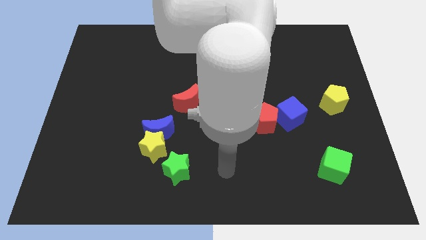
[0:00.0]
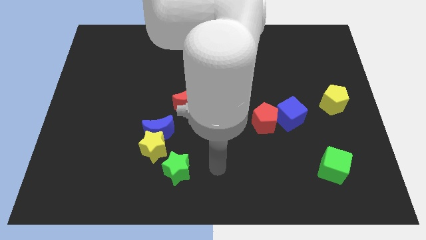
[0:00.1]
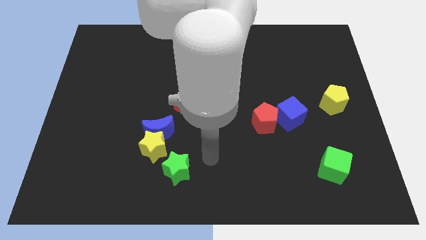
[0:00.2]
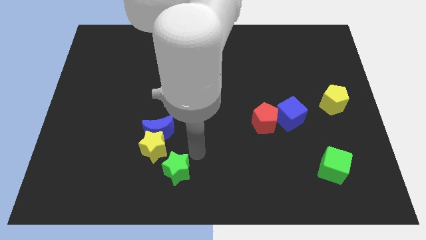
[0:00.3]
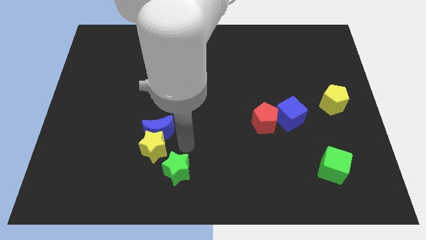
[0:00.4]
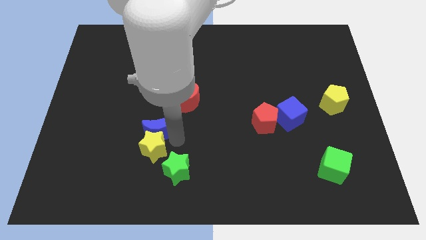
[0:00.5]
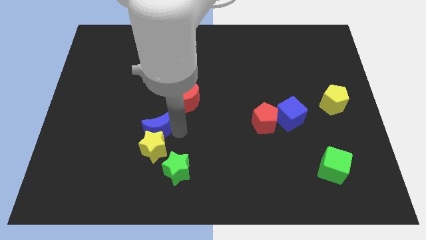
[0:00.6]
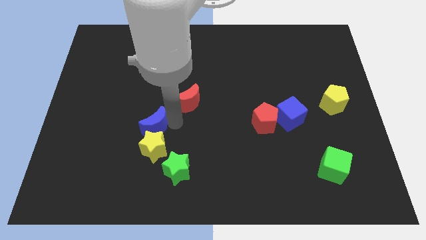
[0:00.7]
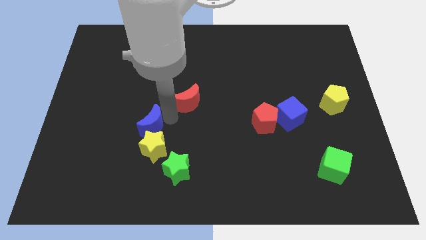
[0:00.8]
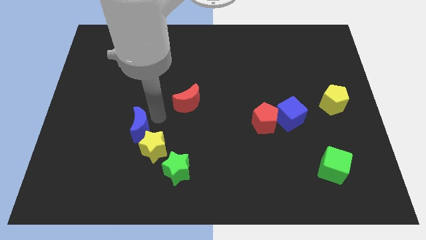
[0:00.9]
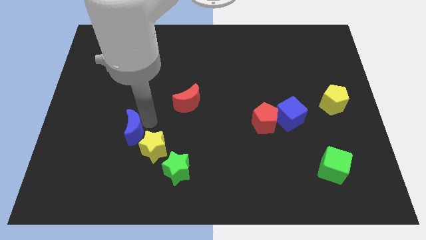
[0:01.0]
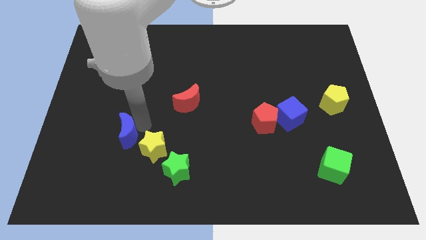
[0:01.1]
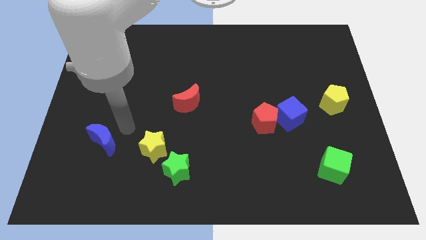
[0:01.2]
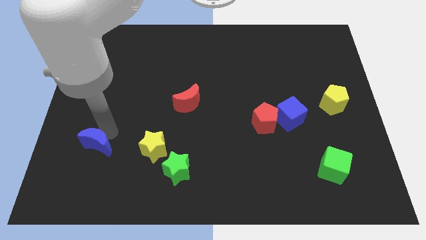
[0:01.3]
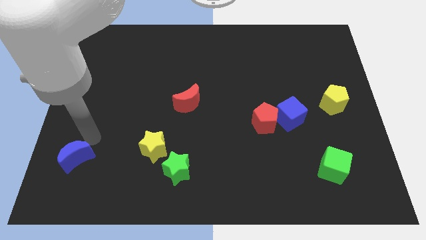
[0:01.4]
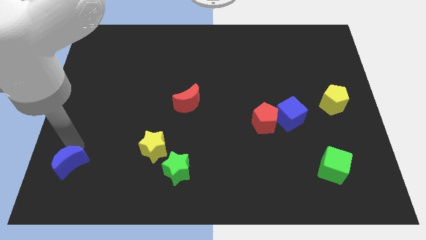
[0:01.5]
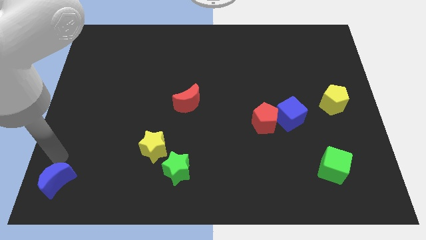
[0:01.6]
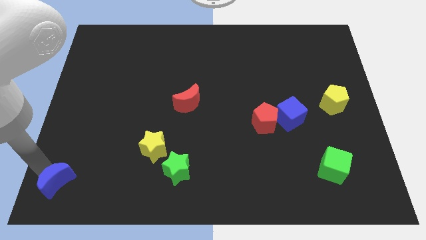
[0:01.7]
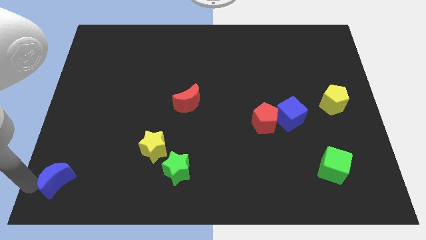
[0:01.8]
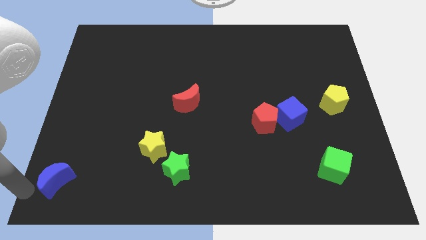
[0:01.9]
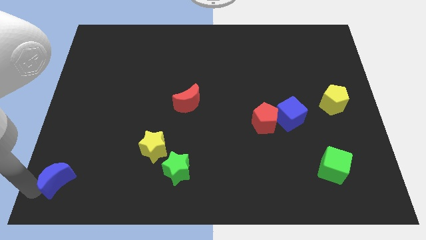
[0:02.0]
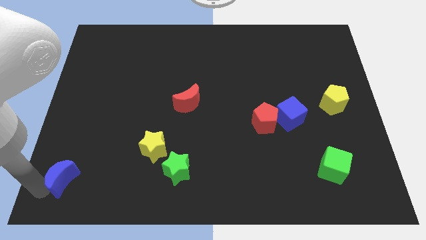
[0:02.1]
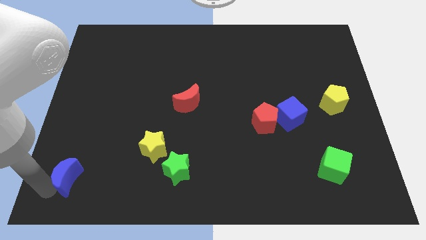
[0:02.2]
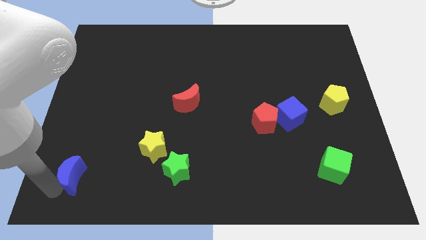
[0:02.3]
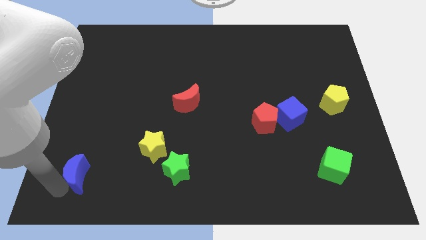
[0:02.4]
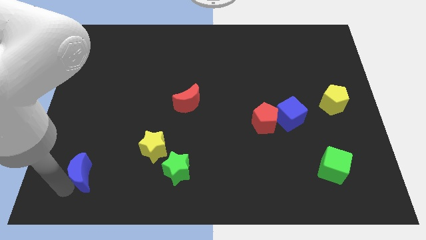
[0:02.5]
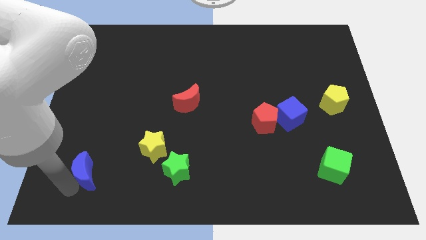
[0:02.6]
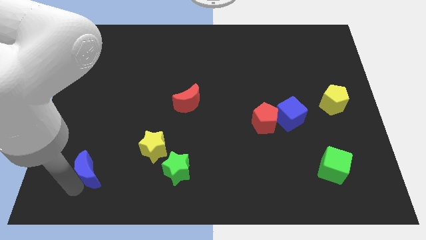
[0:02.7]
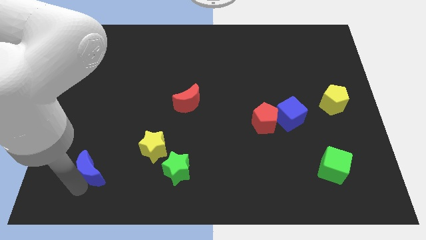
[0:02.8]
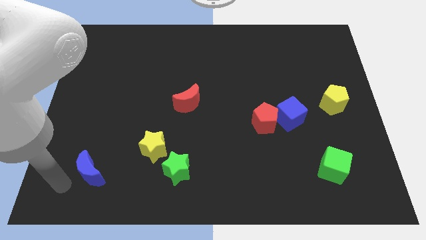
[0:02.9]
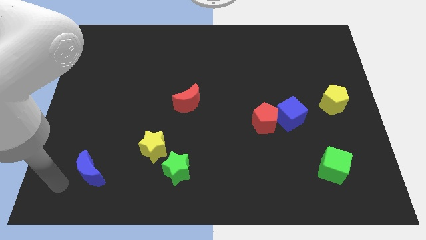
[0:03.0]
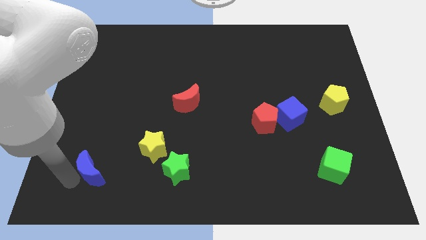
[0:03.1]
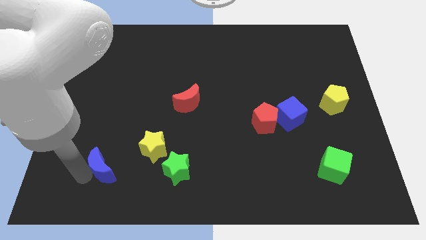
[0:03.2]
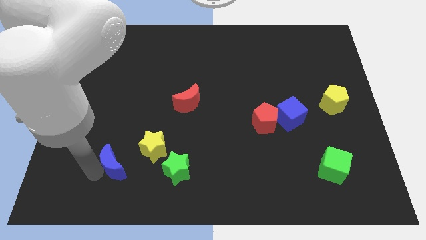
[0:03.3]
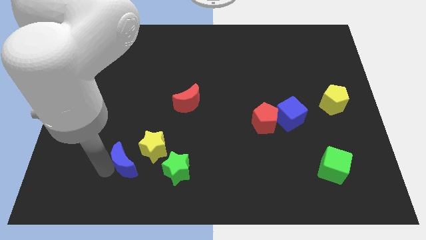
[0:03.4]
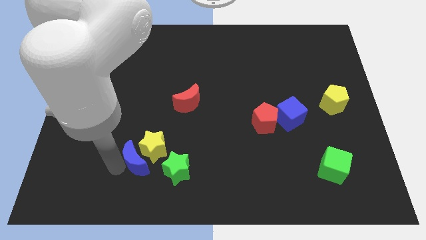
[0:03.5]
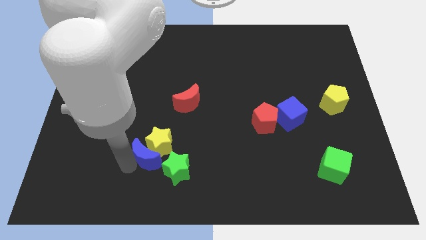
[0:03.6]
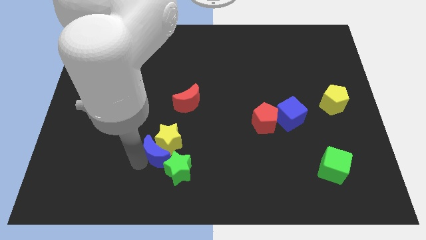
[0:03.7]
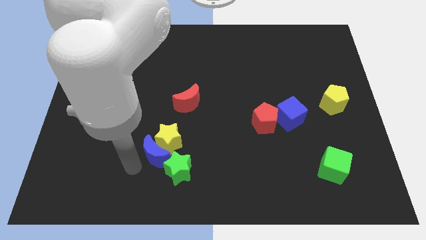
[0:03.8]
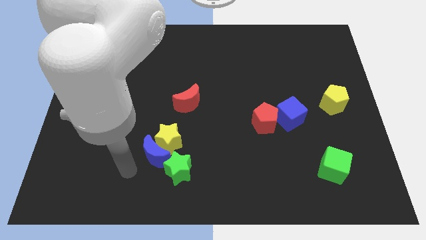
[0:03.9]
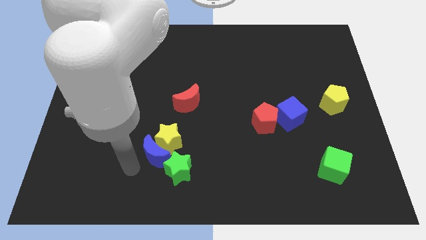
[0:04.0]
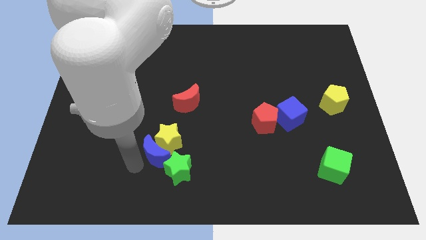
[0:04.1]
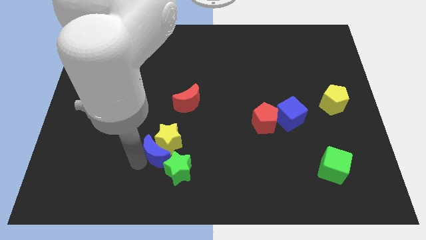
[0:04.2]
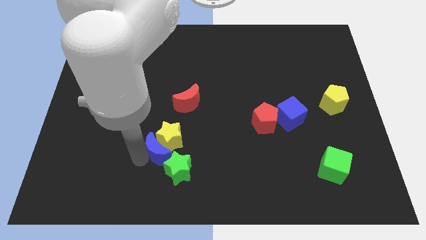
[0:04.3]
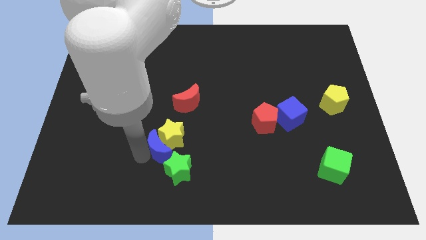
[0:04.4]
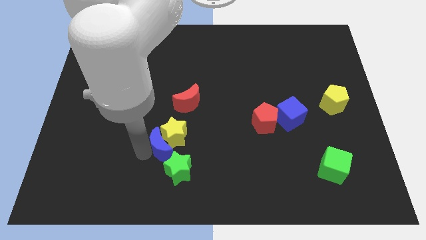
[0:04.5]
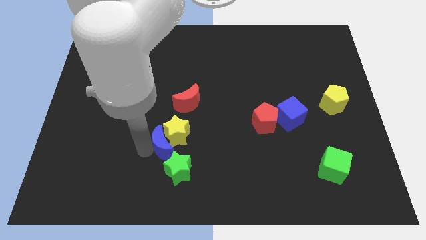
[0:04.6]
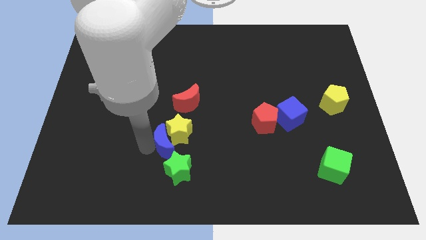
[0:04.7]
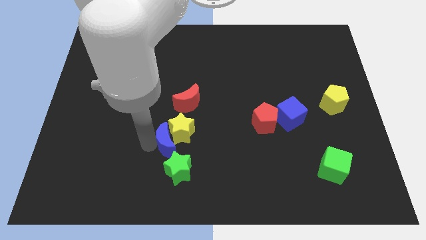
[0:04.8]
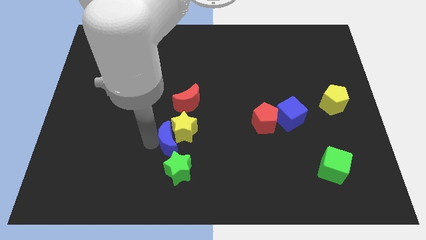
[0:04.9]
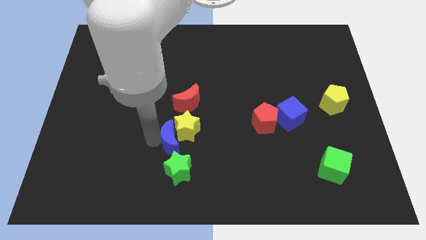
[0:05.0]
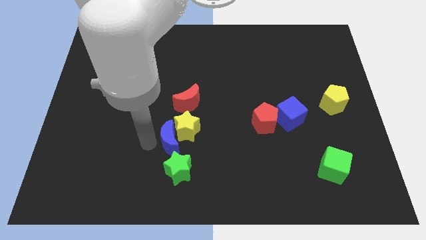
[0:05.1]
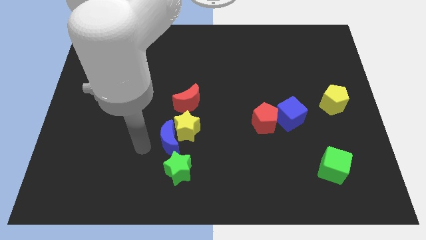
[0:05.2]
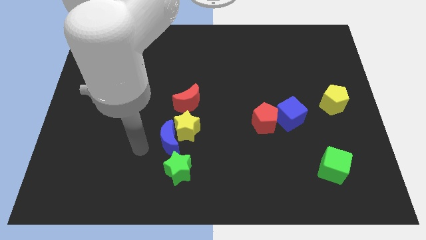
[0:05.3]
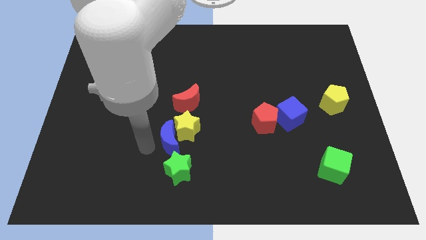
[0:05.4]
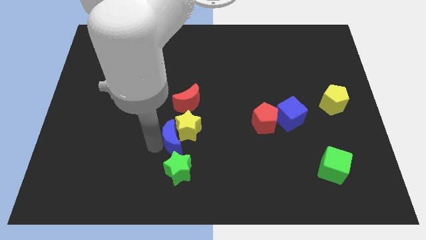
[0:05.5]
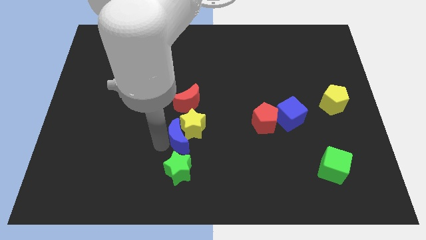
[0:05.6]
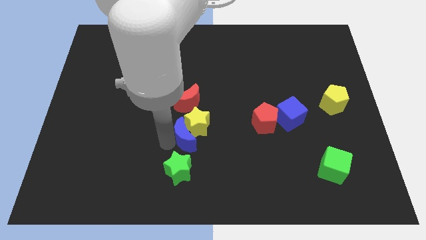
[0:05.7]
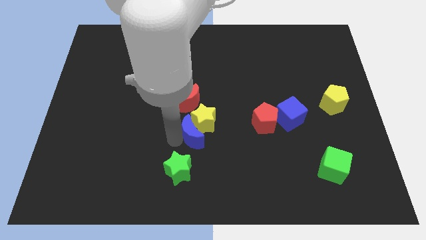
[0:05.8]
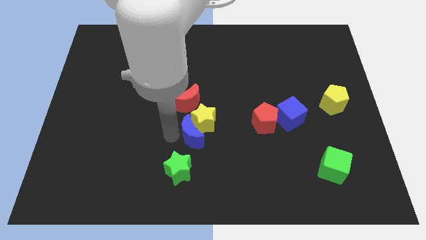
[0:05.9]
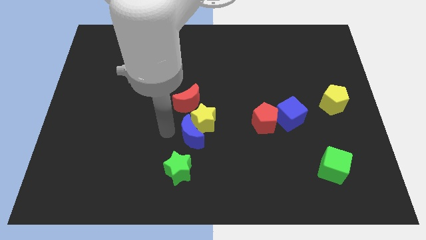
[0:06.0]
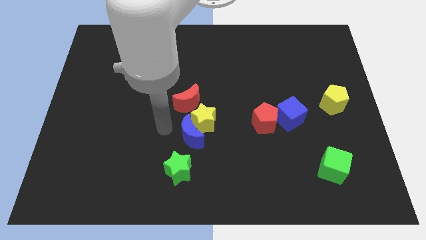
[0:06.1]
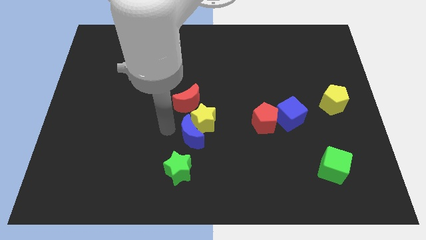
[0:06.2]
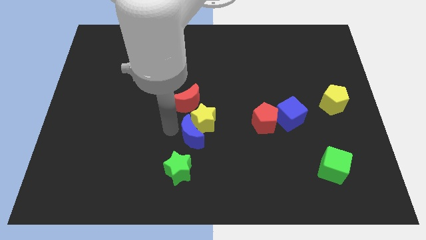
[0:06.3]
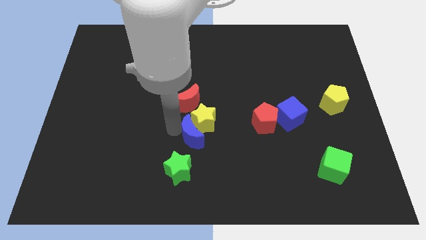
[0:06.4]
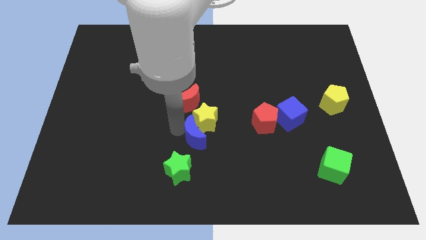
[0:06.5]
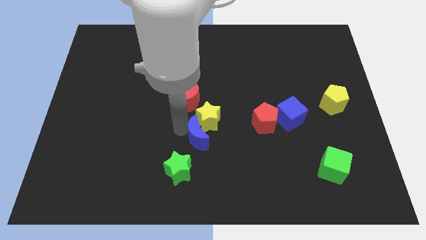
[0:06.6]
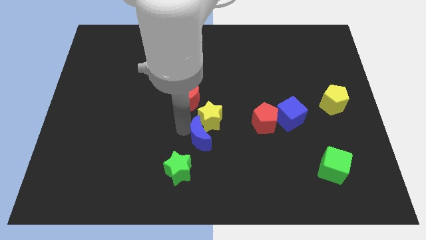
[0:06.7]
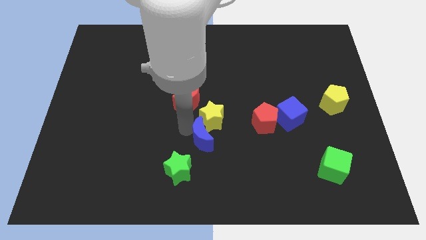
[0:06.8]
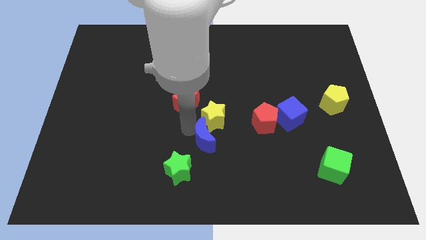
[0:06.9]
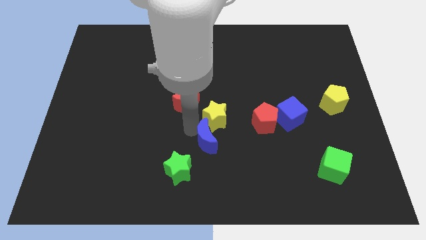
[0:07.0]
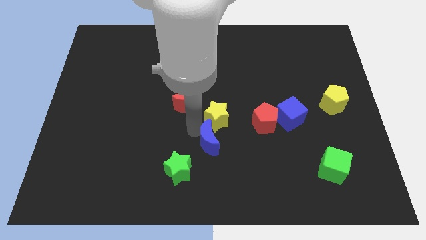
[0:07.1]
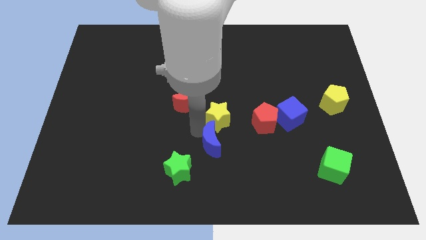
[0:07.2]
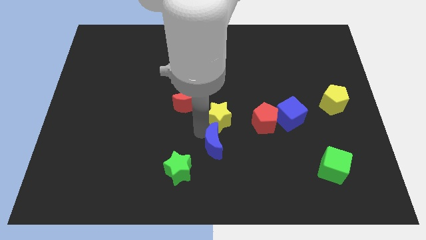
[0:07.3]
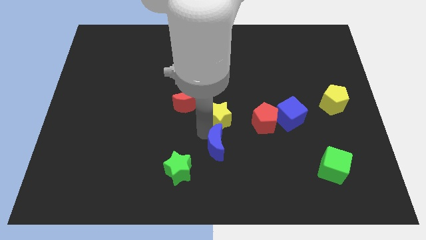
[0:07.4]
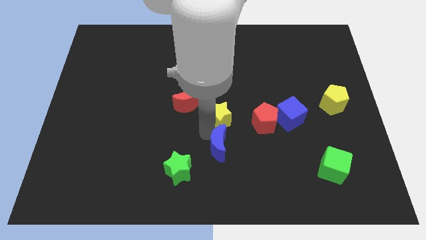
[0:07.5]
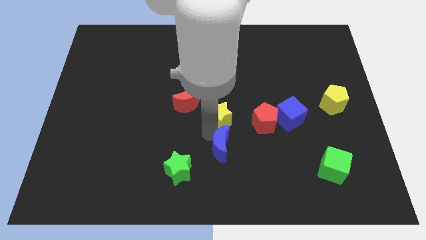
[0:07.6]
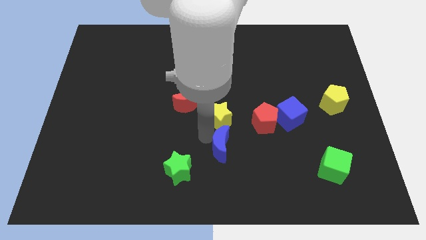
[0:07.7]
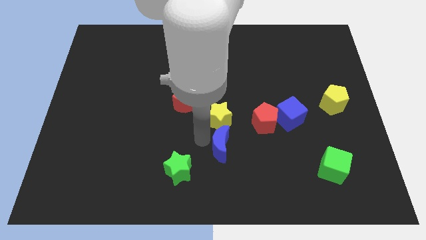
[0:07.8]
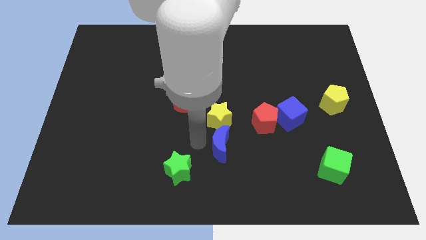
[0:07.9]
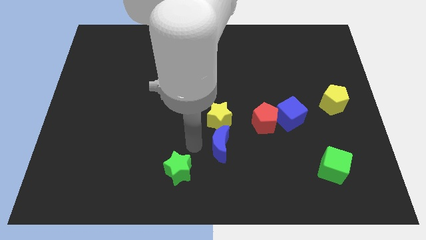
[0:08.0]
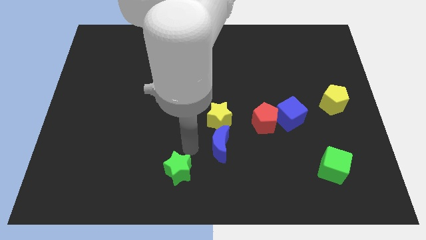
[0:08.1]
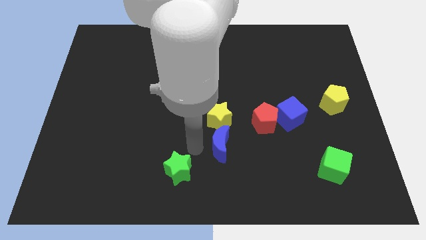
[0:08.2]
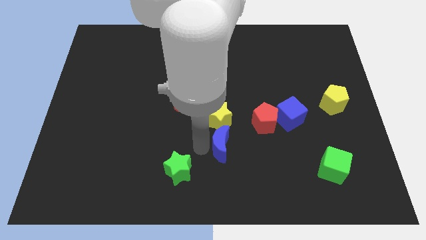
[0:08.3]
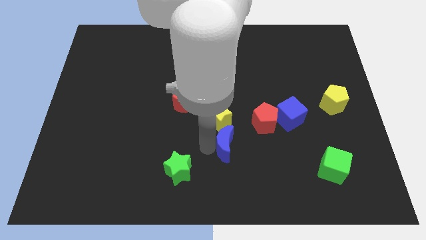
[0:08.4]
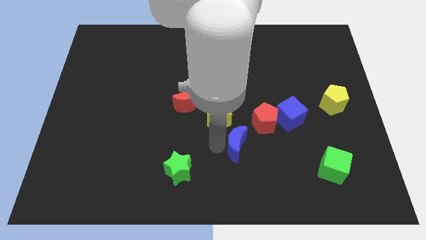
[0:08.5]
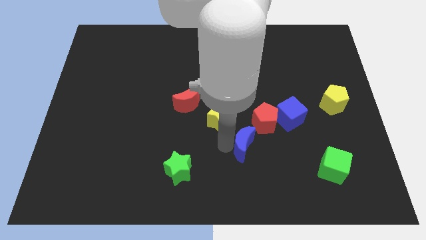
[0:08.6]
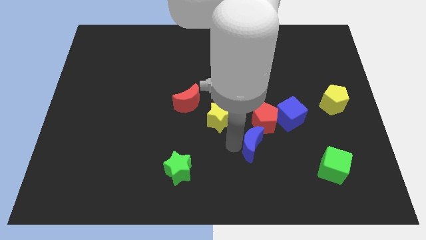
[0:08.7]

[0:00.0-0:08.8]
slide the blue moon to the right
